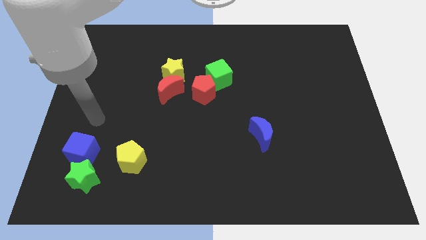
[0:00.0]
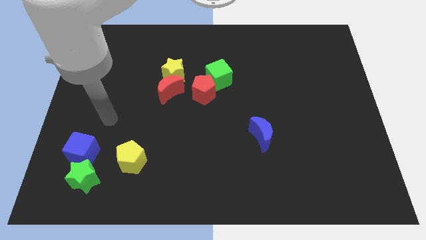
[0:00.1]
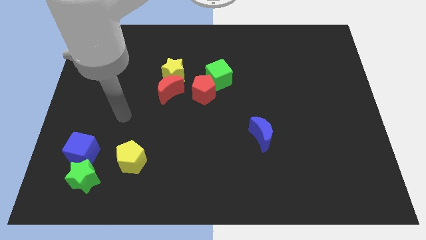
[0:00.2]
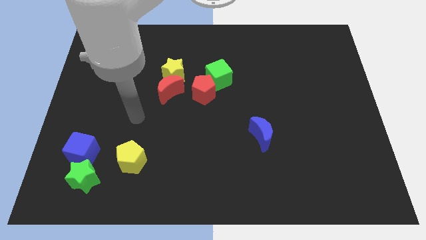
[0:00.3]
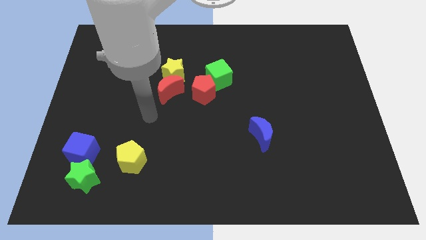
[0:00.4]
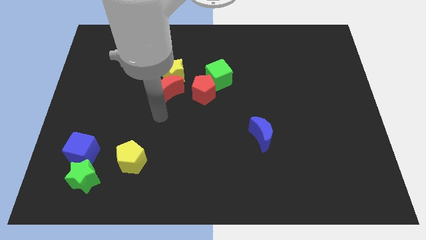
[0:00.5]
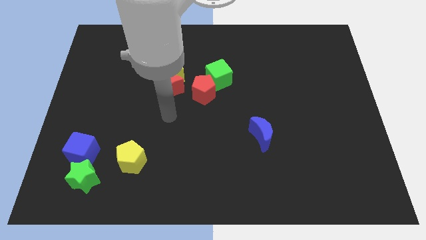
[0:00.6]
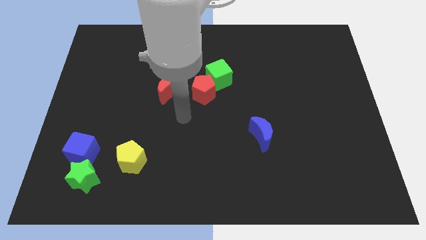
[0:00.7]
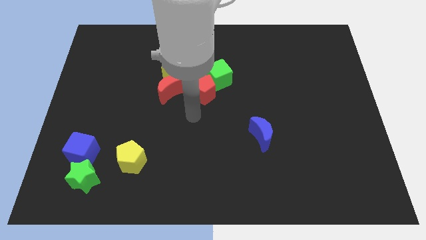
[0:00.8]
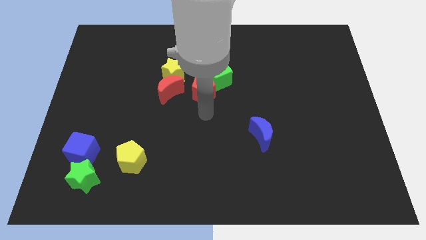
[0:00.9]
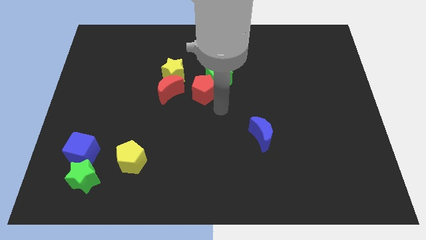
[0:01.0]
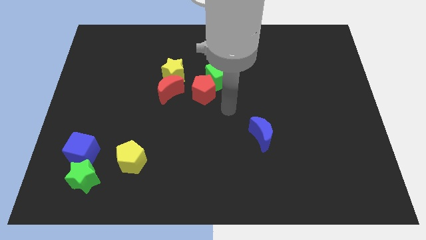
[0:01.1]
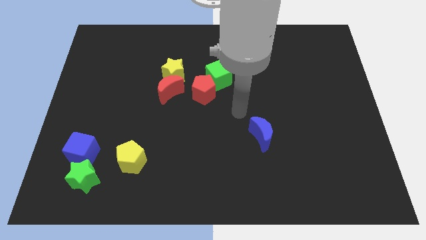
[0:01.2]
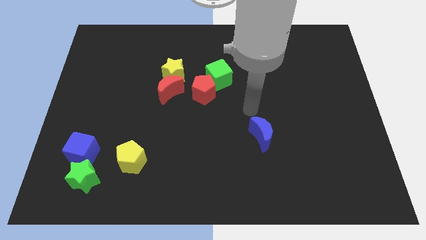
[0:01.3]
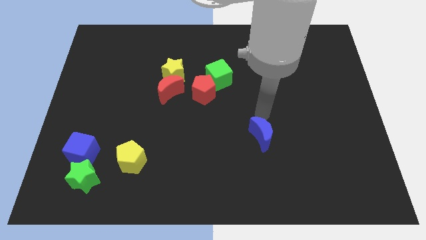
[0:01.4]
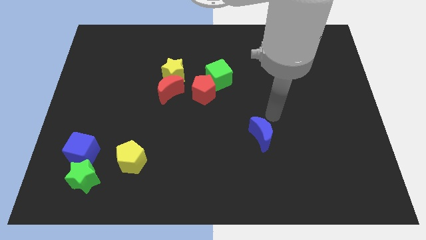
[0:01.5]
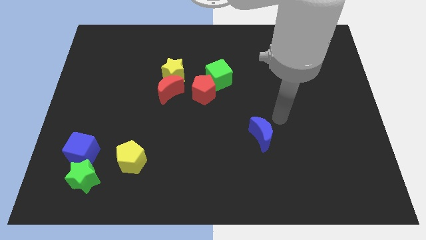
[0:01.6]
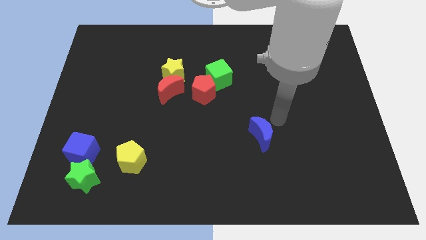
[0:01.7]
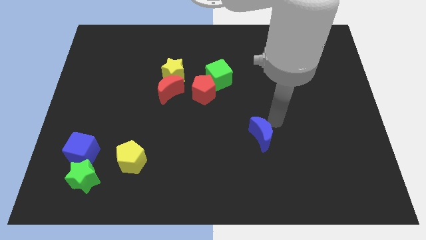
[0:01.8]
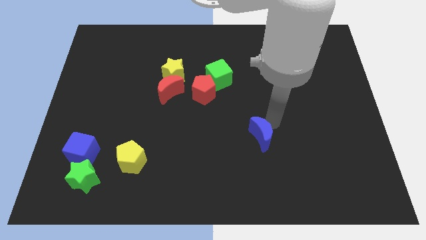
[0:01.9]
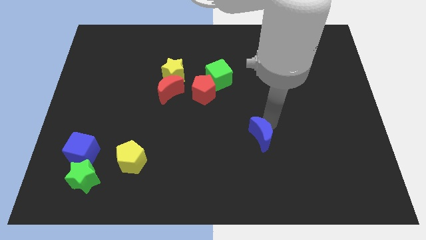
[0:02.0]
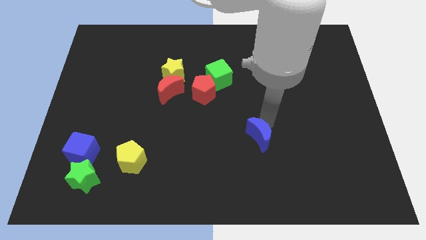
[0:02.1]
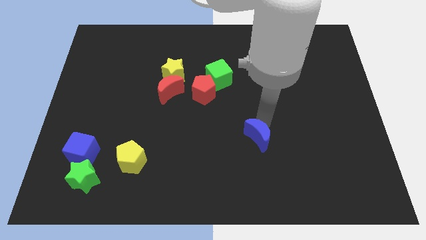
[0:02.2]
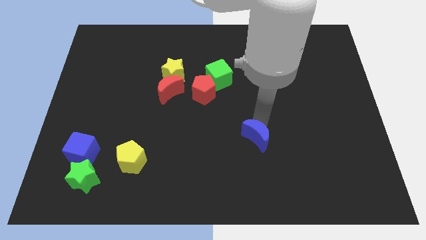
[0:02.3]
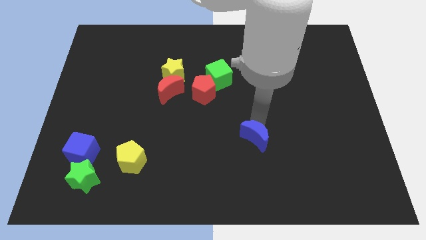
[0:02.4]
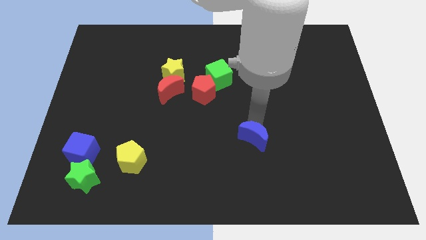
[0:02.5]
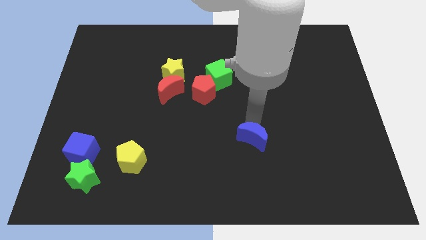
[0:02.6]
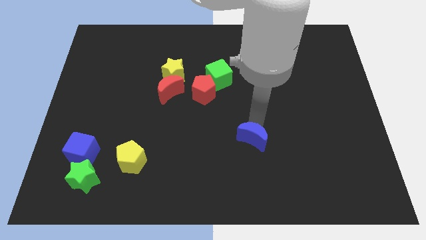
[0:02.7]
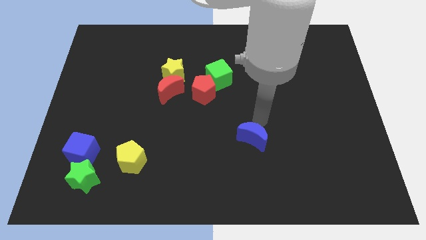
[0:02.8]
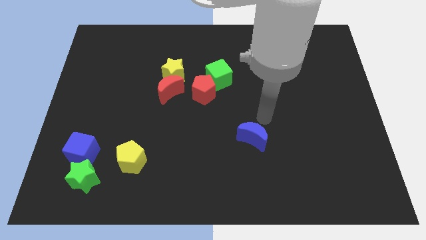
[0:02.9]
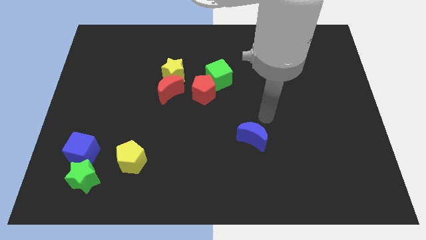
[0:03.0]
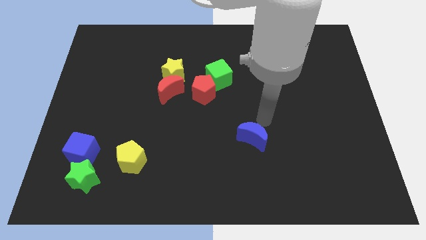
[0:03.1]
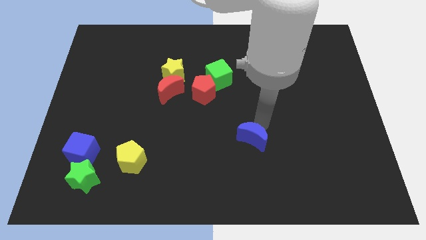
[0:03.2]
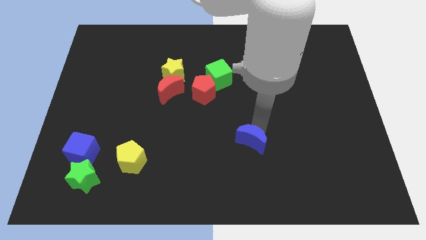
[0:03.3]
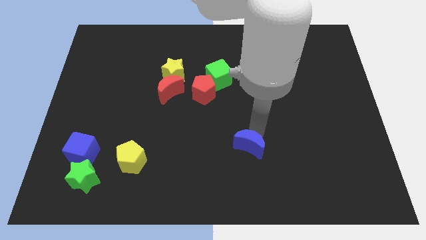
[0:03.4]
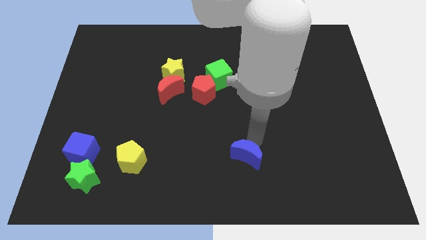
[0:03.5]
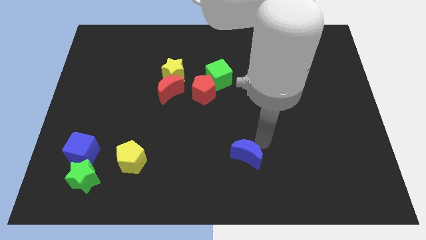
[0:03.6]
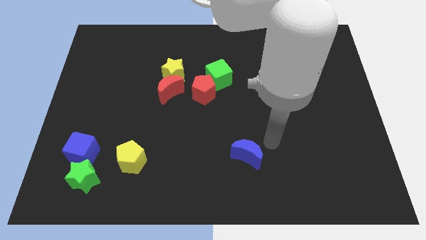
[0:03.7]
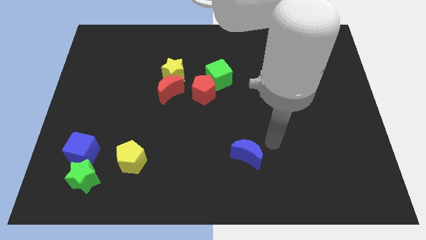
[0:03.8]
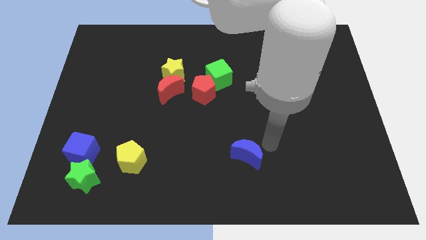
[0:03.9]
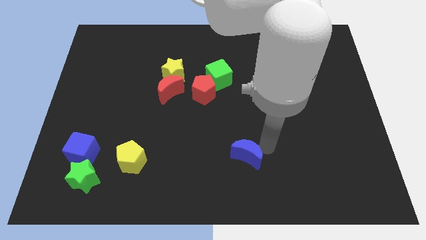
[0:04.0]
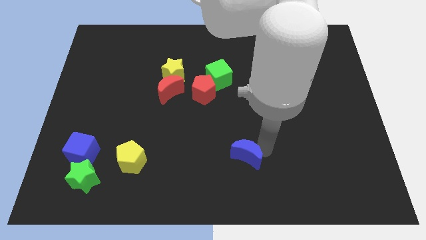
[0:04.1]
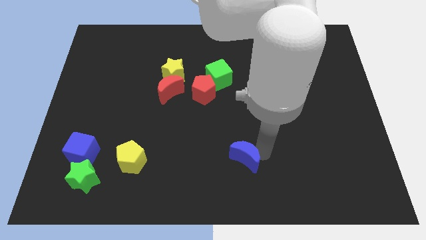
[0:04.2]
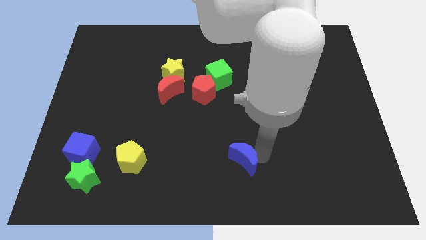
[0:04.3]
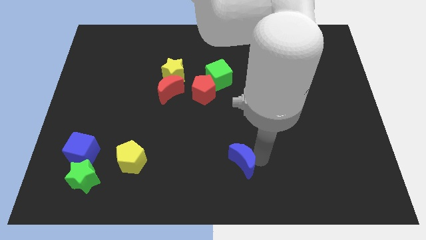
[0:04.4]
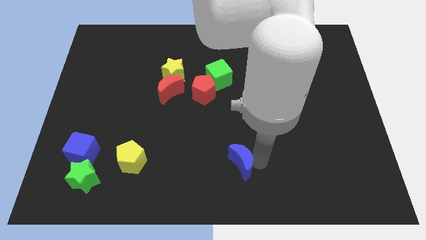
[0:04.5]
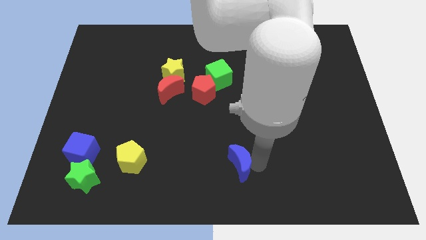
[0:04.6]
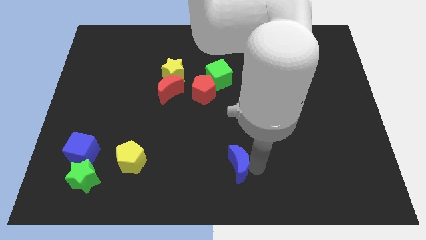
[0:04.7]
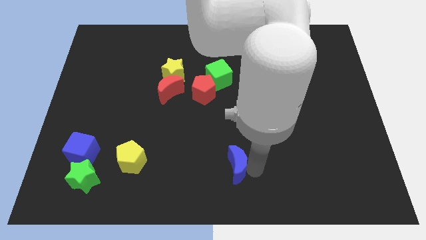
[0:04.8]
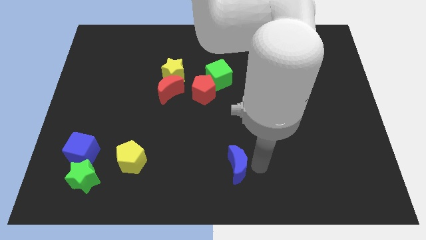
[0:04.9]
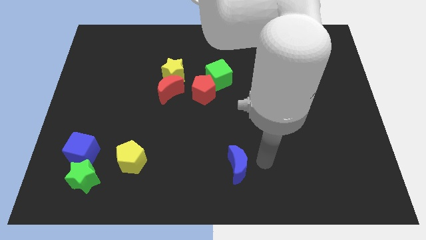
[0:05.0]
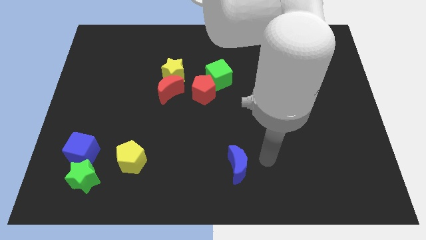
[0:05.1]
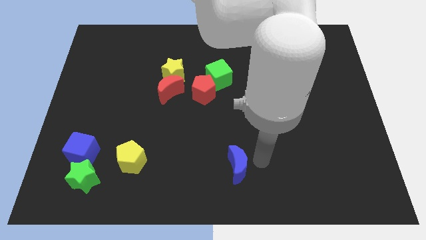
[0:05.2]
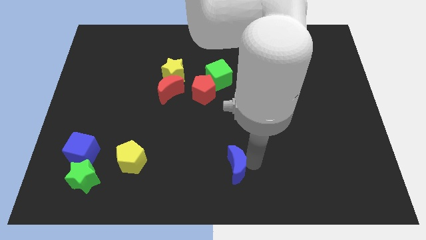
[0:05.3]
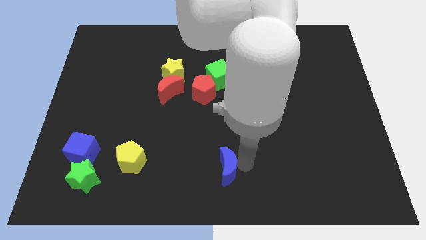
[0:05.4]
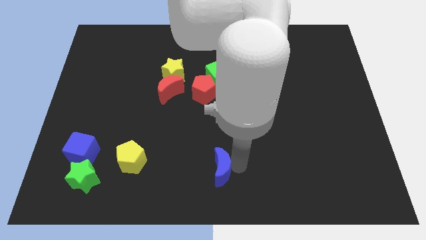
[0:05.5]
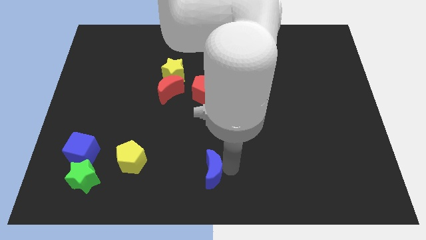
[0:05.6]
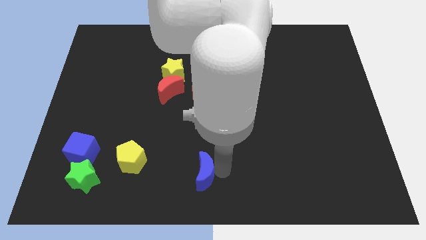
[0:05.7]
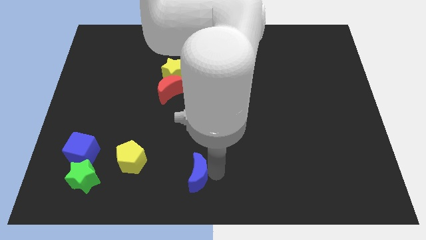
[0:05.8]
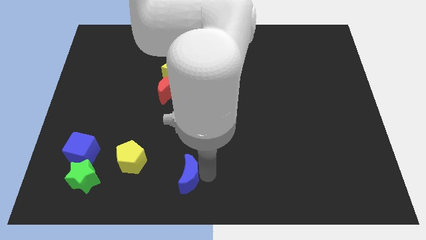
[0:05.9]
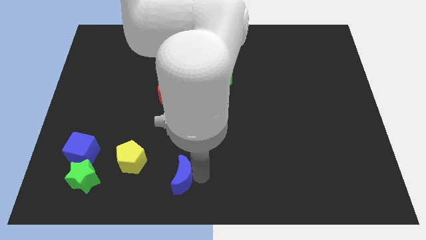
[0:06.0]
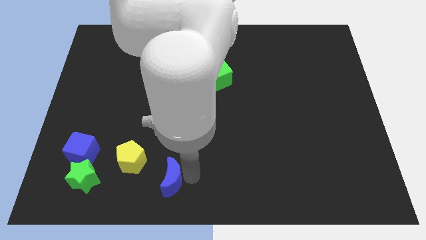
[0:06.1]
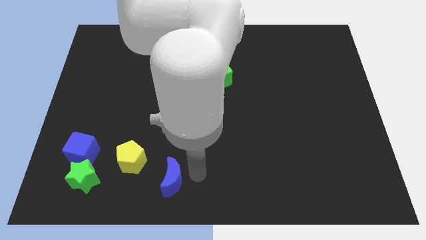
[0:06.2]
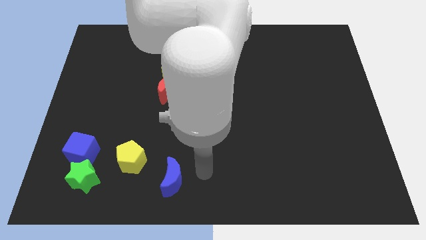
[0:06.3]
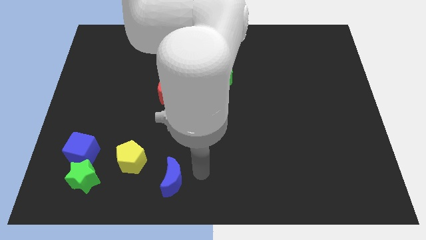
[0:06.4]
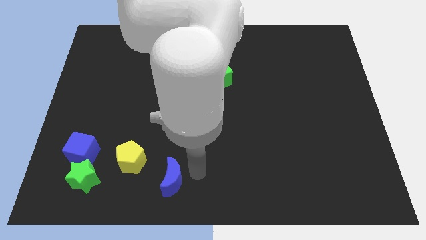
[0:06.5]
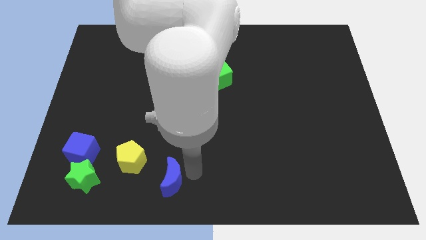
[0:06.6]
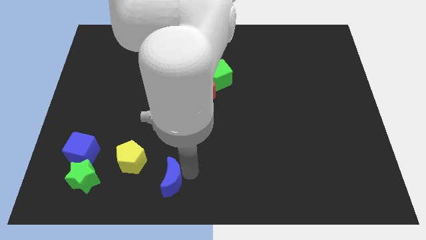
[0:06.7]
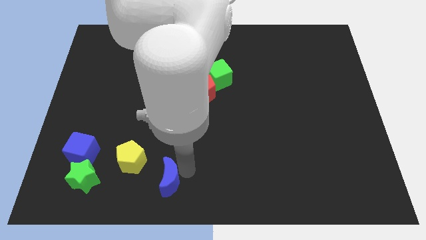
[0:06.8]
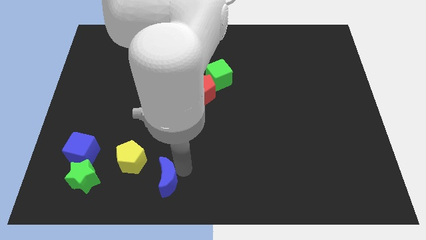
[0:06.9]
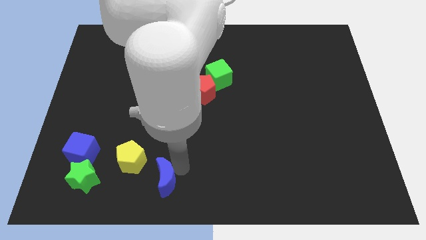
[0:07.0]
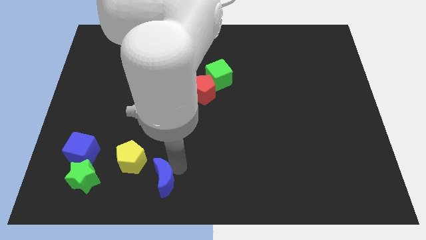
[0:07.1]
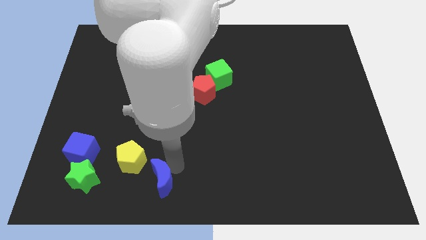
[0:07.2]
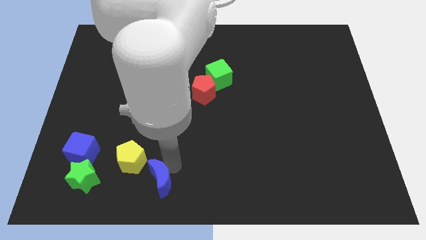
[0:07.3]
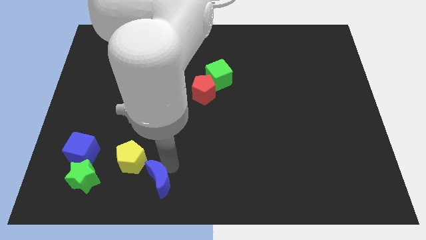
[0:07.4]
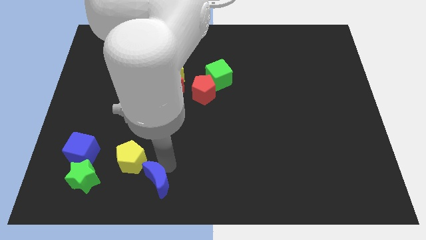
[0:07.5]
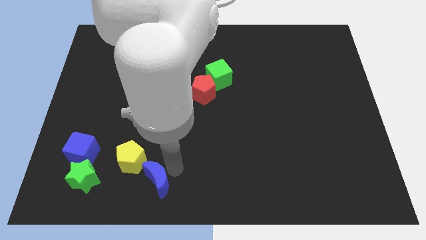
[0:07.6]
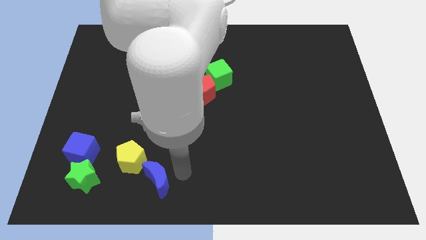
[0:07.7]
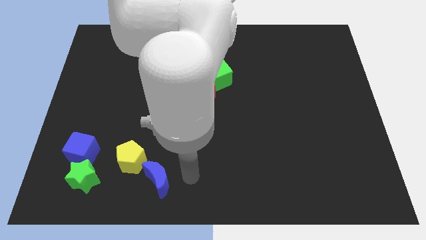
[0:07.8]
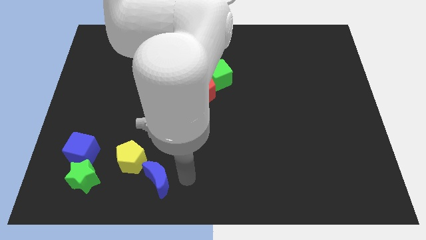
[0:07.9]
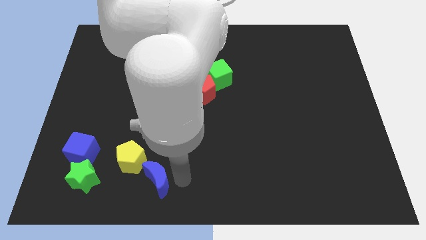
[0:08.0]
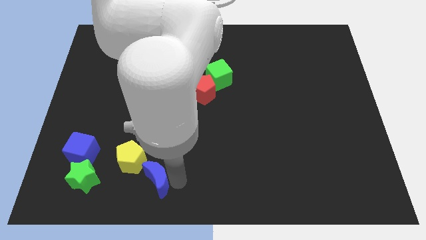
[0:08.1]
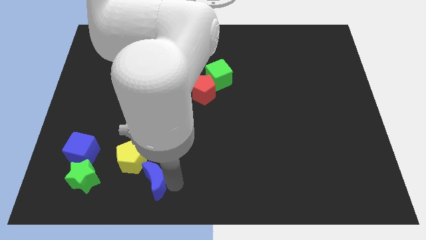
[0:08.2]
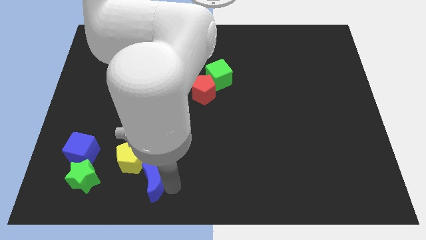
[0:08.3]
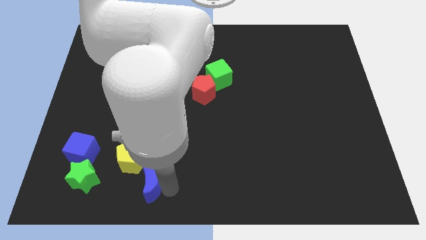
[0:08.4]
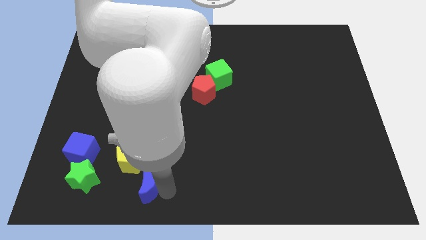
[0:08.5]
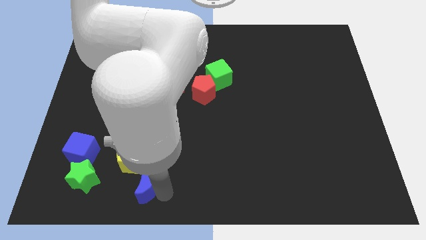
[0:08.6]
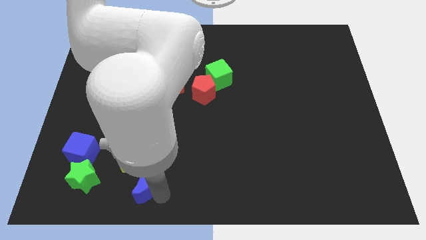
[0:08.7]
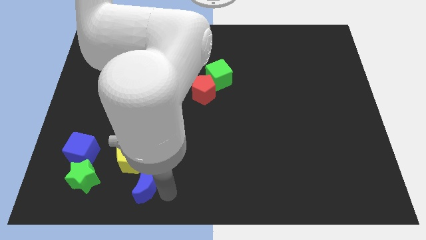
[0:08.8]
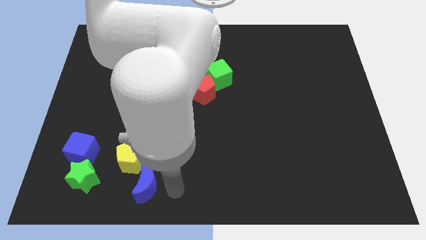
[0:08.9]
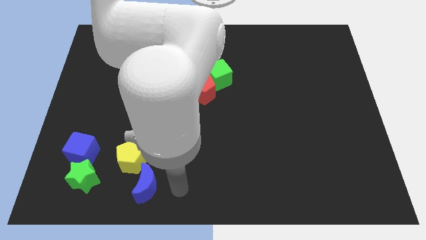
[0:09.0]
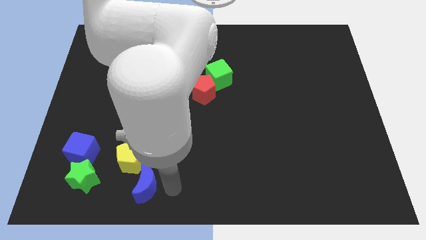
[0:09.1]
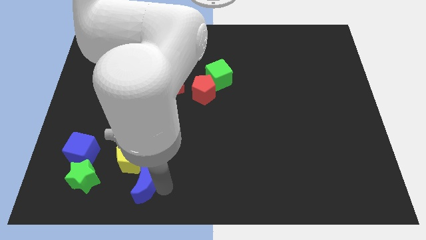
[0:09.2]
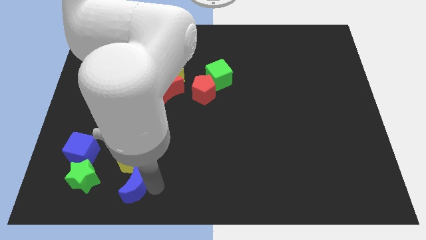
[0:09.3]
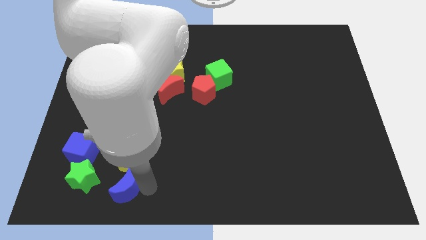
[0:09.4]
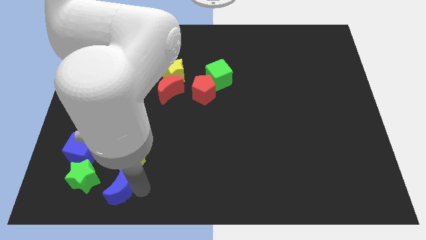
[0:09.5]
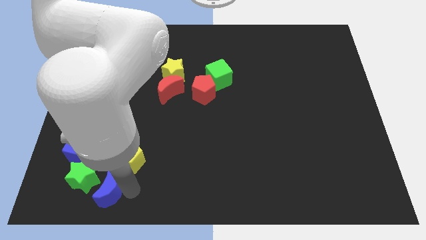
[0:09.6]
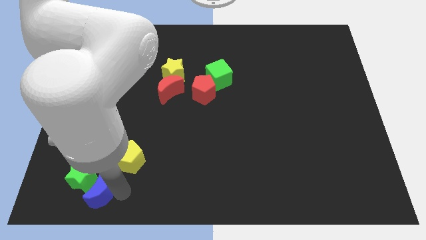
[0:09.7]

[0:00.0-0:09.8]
put the blue moon next to the green star
